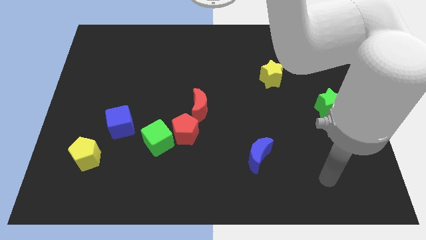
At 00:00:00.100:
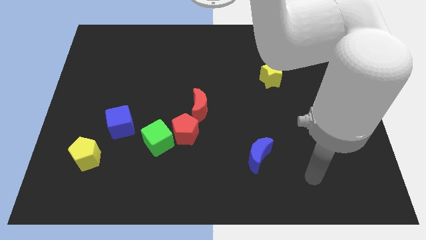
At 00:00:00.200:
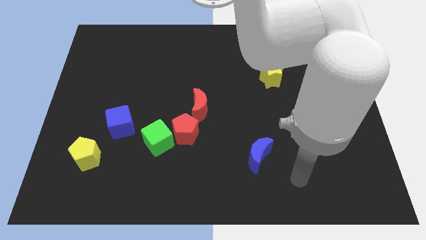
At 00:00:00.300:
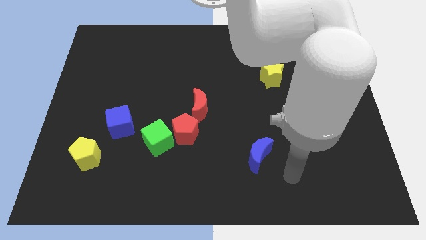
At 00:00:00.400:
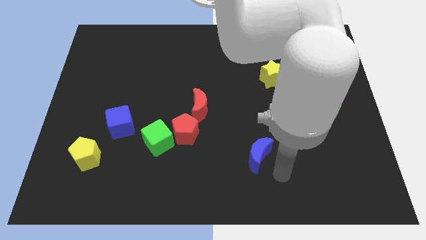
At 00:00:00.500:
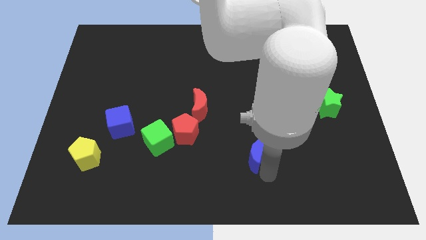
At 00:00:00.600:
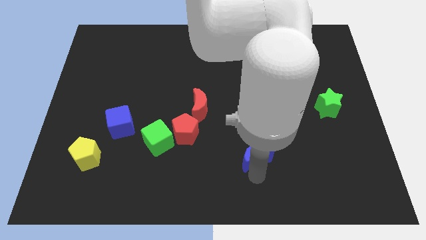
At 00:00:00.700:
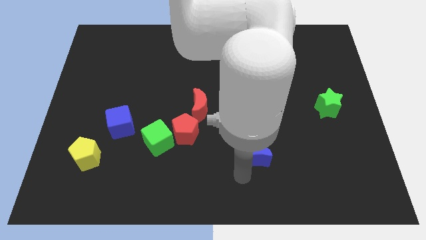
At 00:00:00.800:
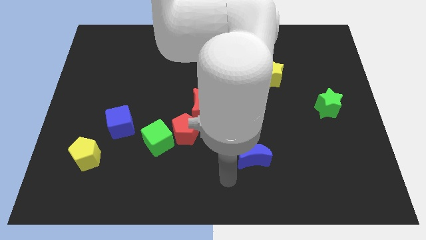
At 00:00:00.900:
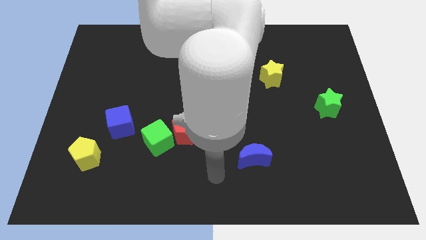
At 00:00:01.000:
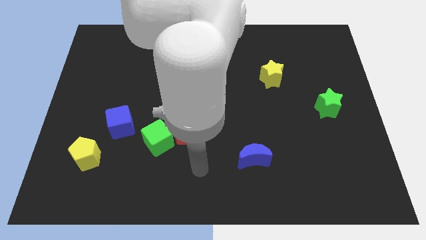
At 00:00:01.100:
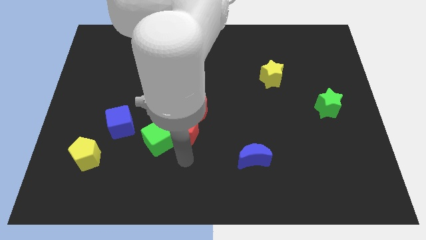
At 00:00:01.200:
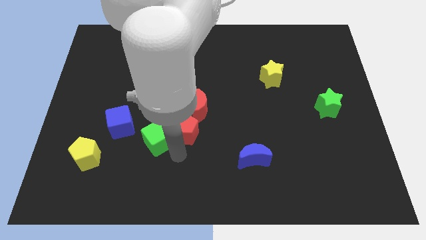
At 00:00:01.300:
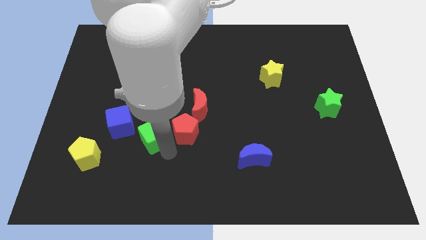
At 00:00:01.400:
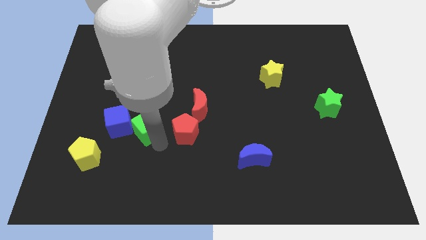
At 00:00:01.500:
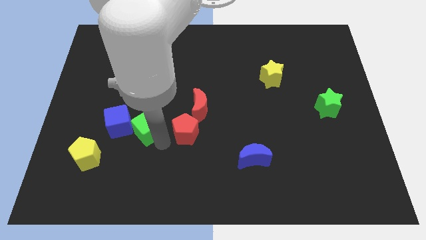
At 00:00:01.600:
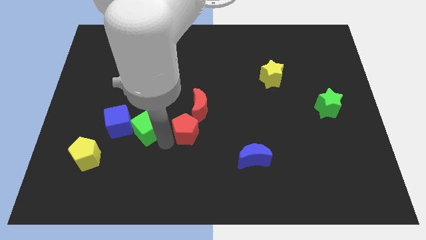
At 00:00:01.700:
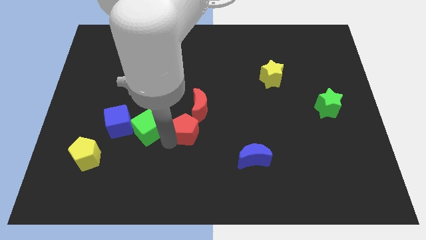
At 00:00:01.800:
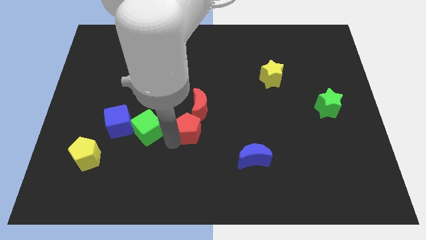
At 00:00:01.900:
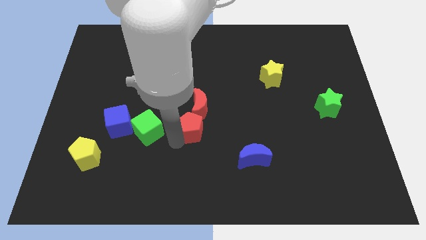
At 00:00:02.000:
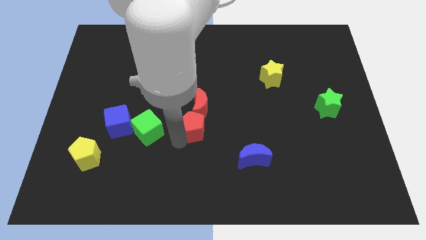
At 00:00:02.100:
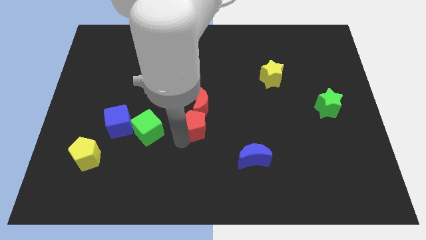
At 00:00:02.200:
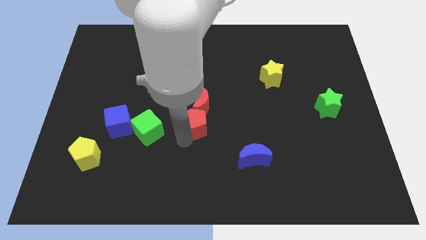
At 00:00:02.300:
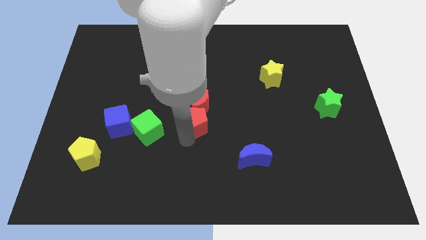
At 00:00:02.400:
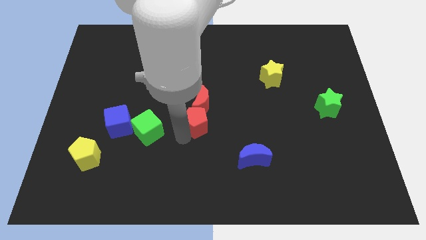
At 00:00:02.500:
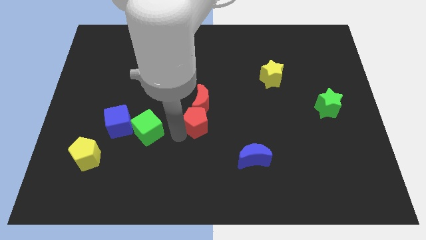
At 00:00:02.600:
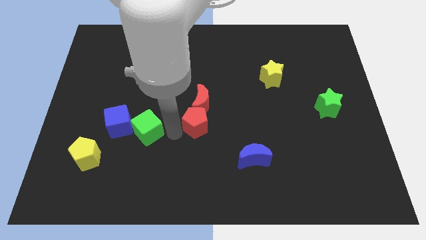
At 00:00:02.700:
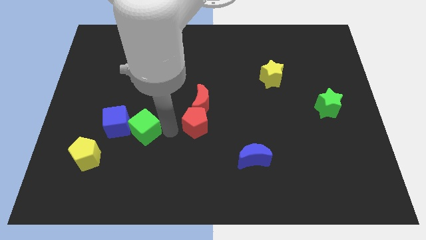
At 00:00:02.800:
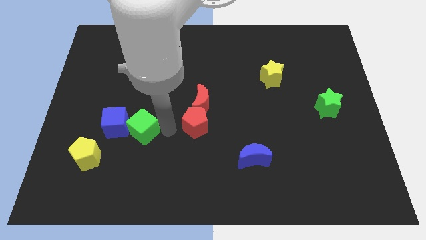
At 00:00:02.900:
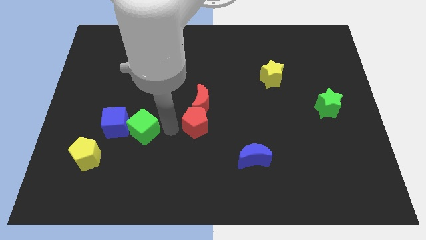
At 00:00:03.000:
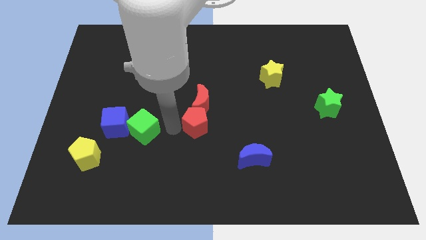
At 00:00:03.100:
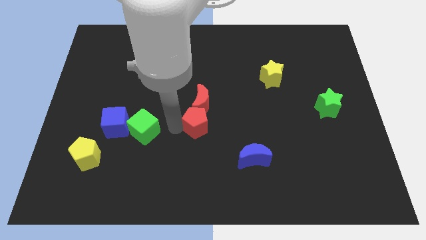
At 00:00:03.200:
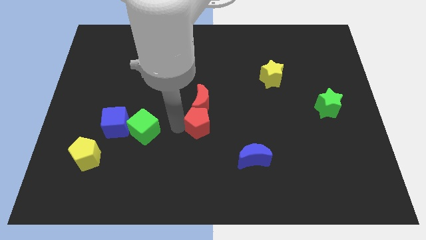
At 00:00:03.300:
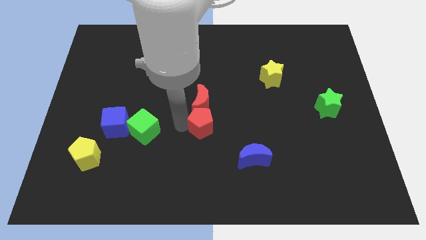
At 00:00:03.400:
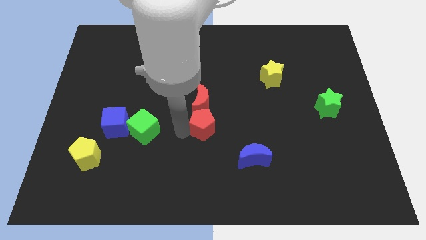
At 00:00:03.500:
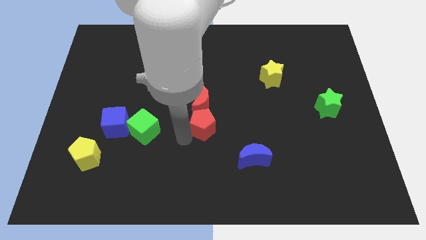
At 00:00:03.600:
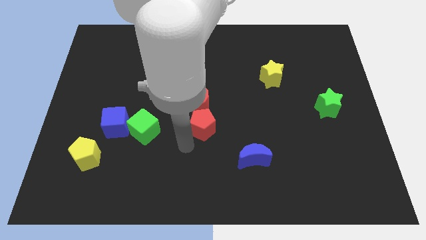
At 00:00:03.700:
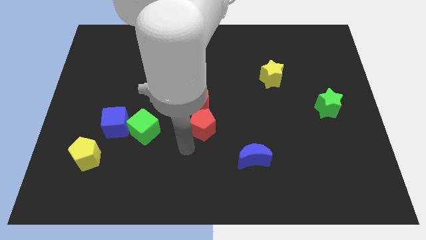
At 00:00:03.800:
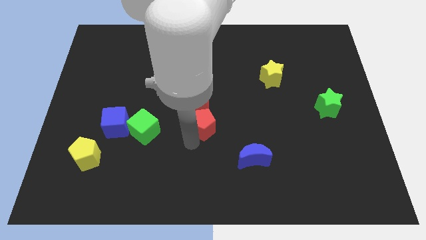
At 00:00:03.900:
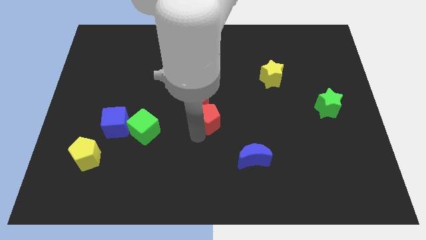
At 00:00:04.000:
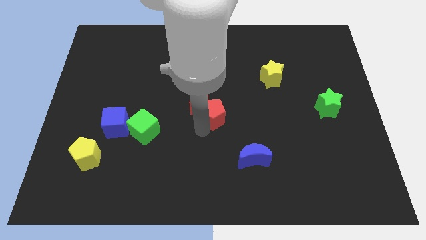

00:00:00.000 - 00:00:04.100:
slide the red pentagon a little diagonally up and right

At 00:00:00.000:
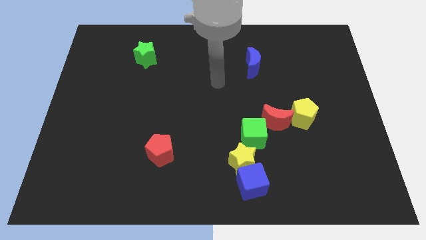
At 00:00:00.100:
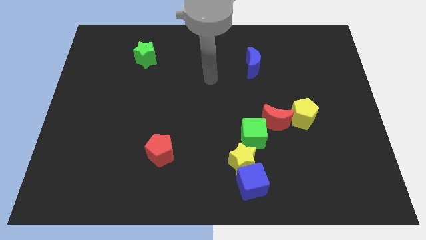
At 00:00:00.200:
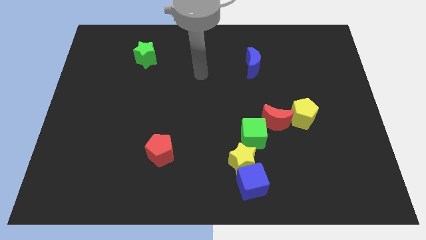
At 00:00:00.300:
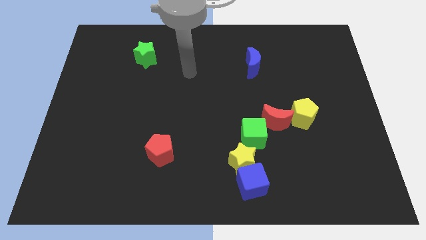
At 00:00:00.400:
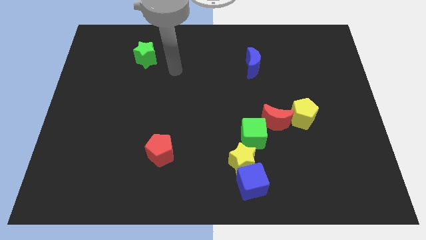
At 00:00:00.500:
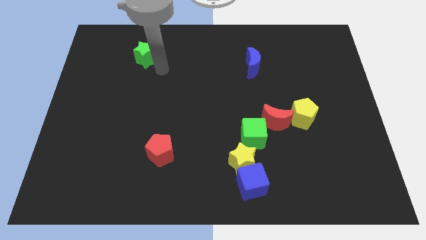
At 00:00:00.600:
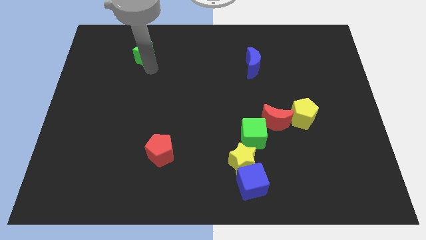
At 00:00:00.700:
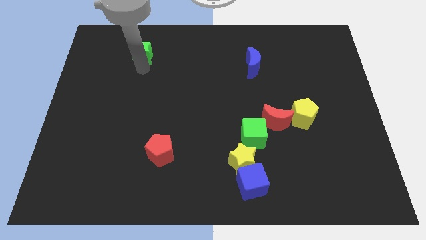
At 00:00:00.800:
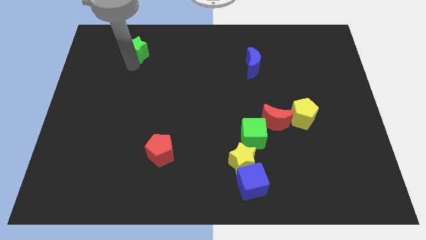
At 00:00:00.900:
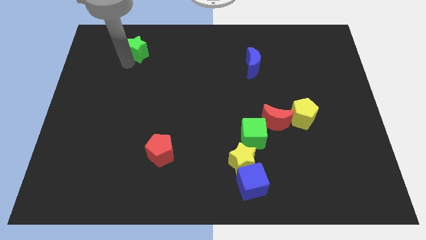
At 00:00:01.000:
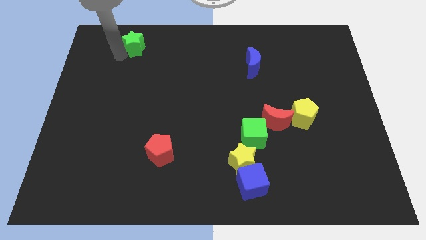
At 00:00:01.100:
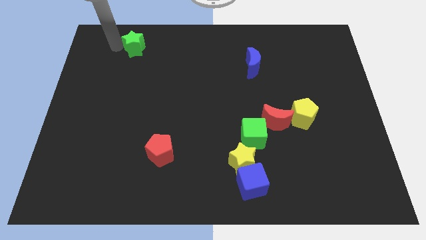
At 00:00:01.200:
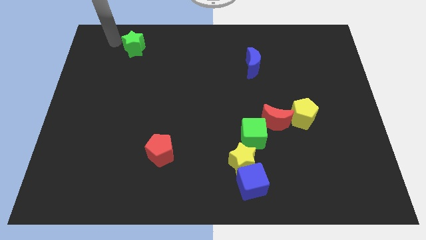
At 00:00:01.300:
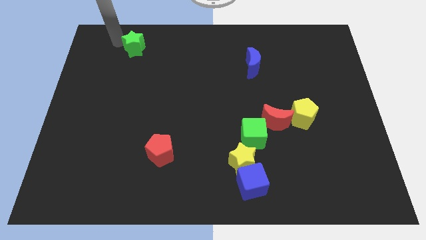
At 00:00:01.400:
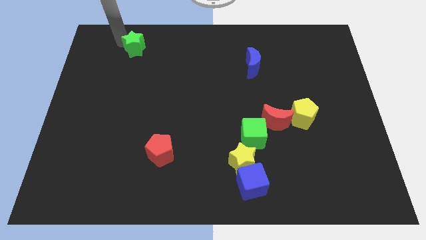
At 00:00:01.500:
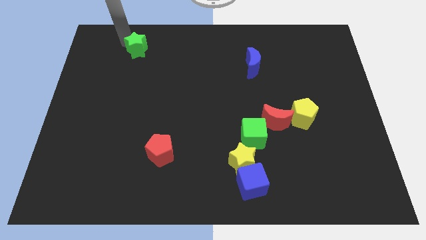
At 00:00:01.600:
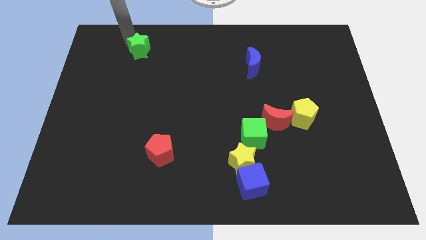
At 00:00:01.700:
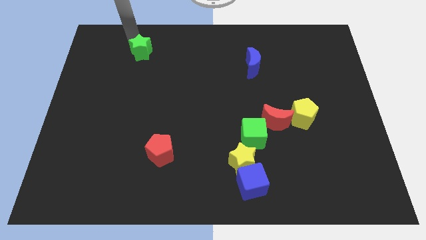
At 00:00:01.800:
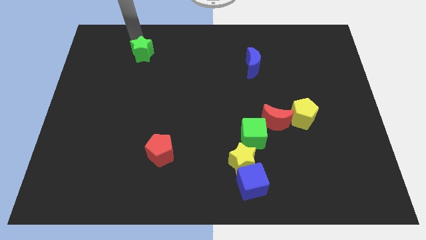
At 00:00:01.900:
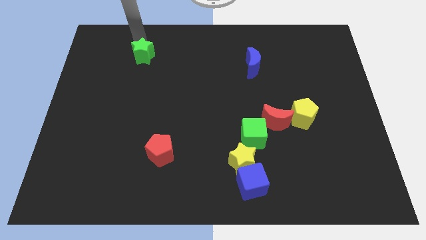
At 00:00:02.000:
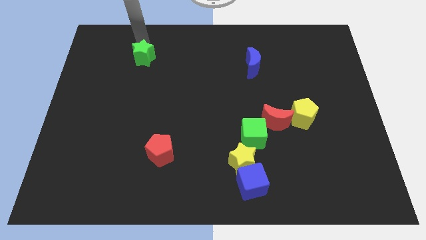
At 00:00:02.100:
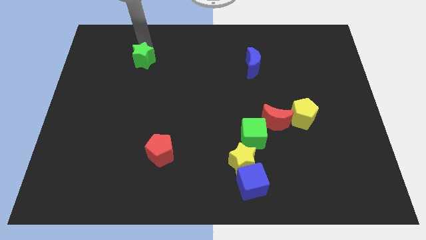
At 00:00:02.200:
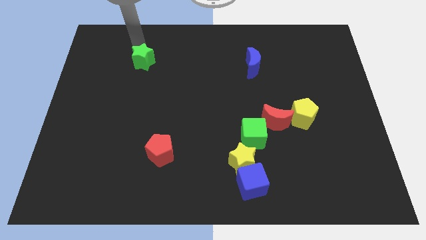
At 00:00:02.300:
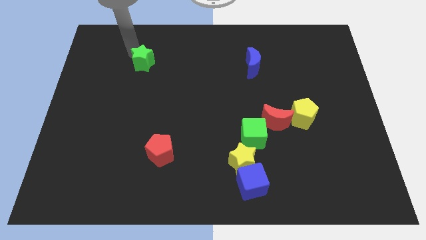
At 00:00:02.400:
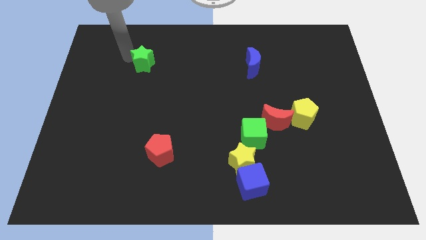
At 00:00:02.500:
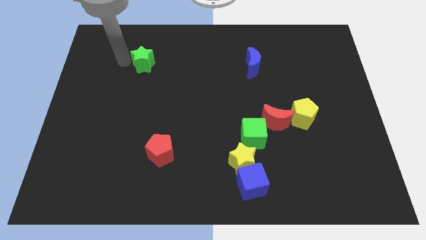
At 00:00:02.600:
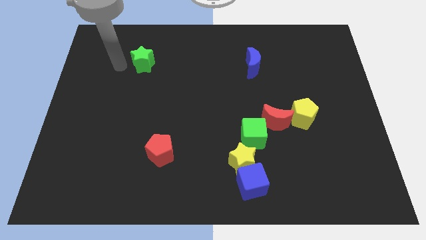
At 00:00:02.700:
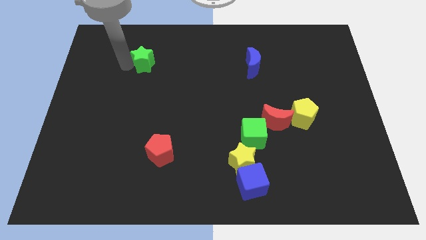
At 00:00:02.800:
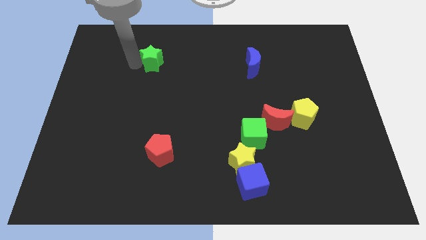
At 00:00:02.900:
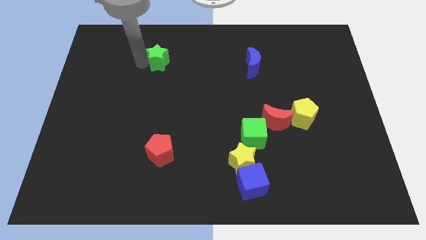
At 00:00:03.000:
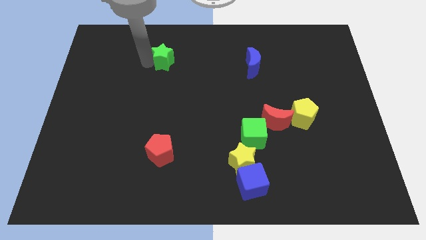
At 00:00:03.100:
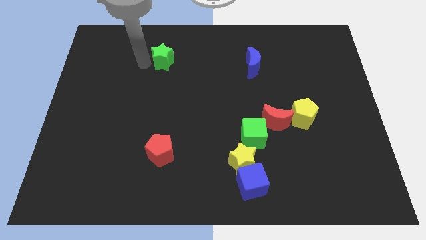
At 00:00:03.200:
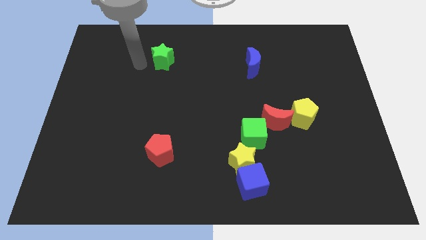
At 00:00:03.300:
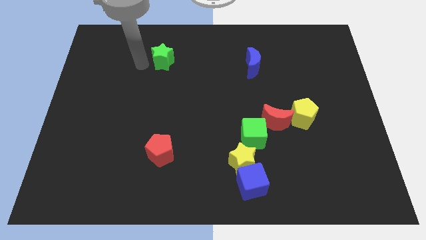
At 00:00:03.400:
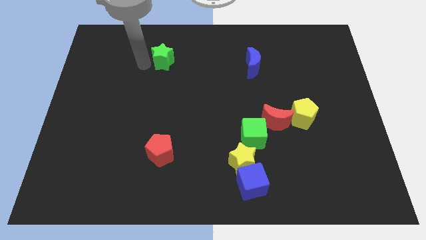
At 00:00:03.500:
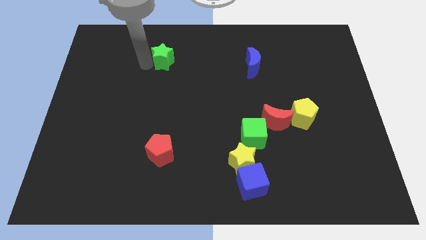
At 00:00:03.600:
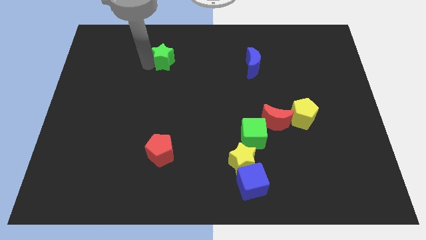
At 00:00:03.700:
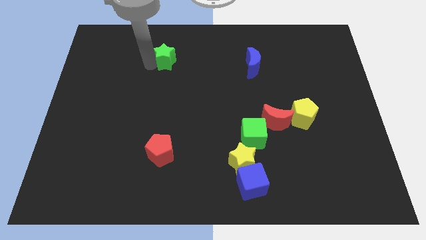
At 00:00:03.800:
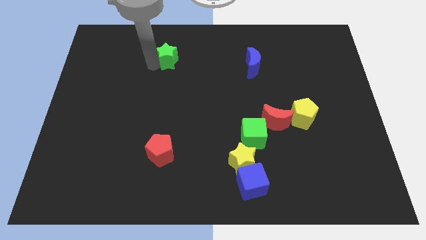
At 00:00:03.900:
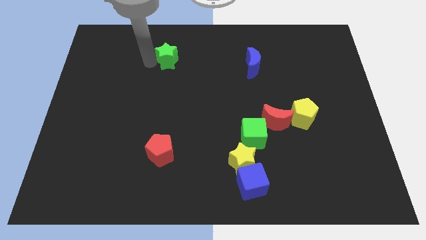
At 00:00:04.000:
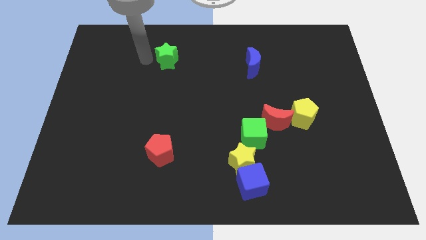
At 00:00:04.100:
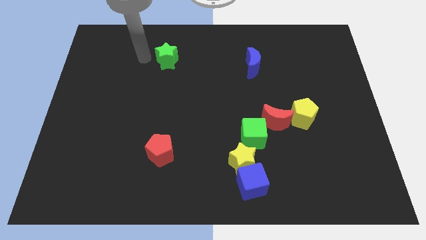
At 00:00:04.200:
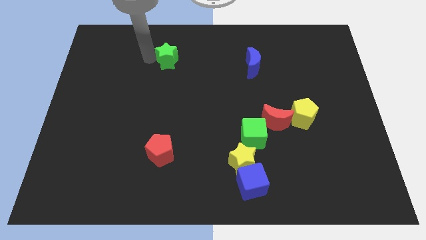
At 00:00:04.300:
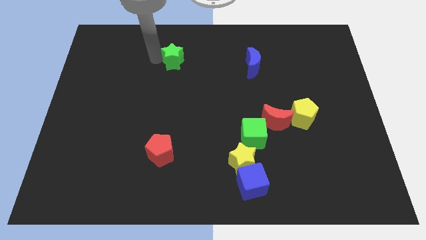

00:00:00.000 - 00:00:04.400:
move the green star a little right
